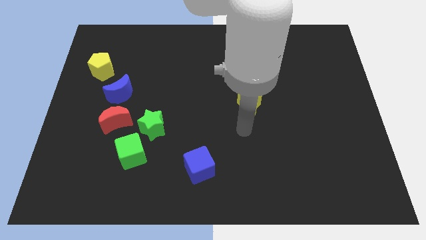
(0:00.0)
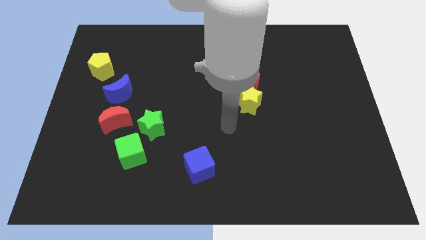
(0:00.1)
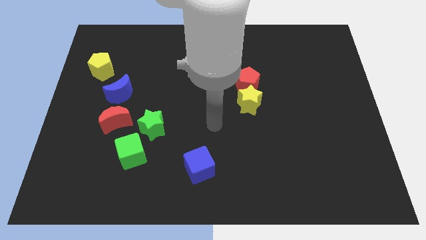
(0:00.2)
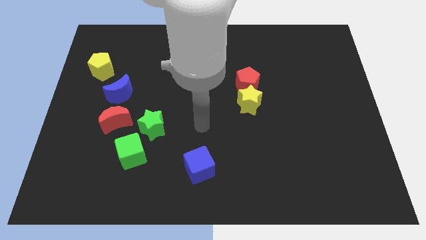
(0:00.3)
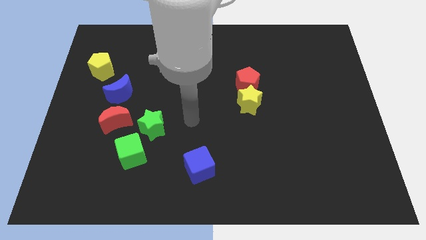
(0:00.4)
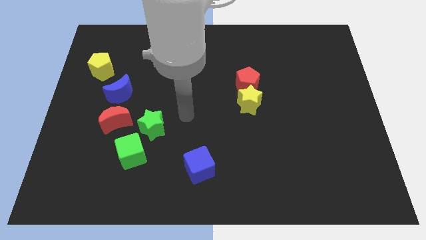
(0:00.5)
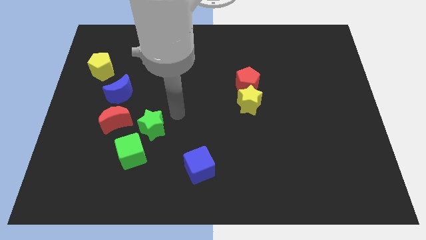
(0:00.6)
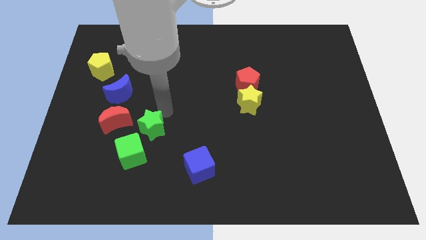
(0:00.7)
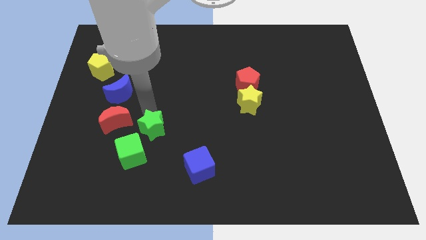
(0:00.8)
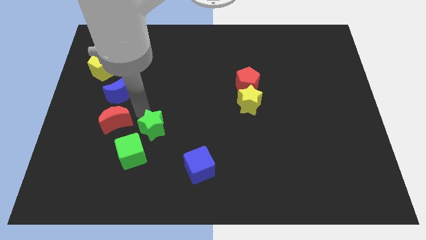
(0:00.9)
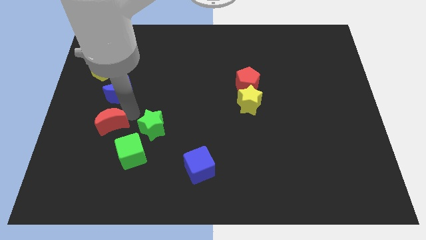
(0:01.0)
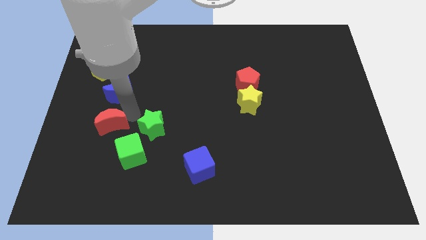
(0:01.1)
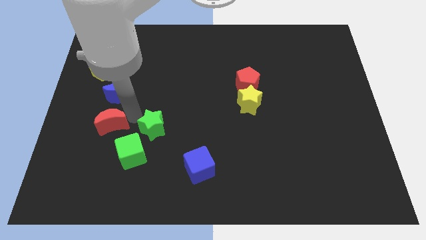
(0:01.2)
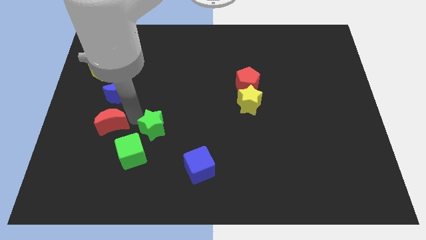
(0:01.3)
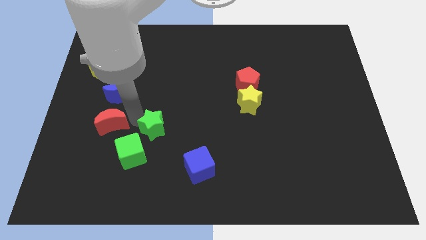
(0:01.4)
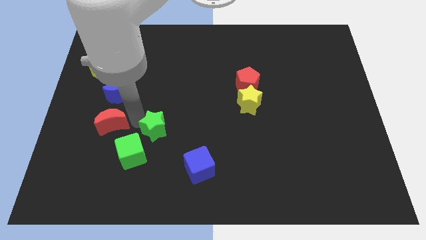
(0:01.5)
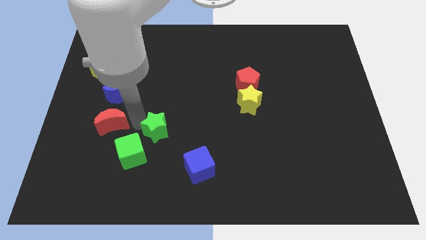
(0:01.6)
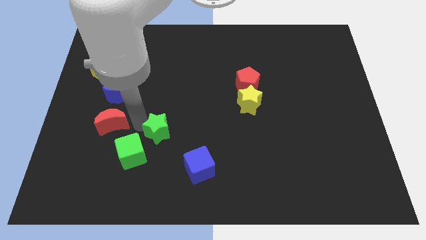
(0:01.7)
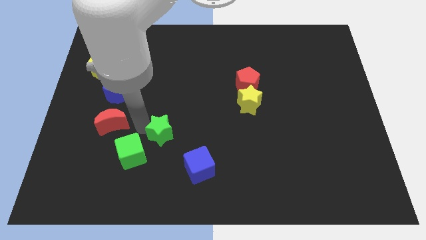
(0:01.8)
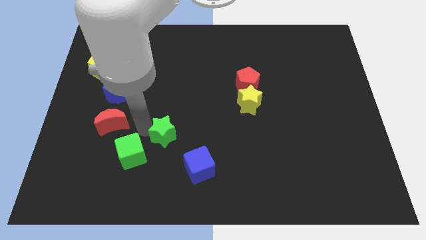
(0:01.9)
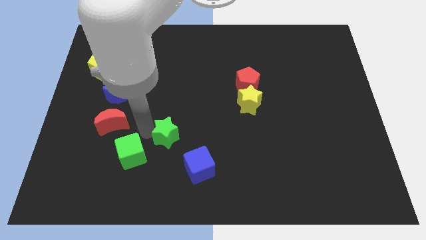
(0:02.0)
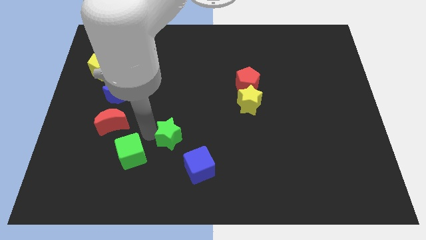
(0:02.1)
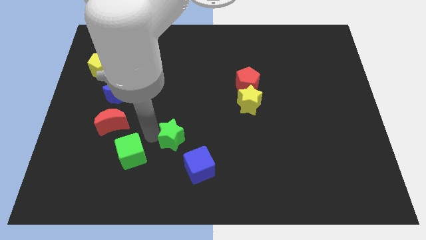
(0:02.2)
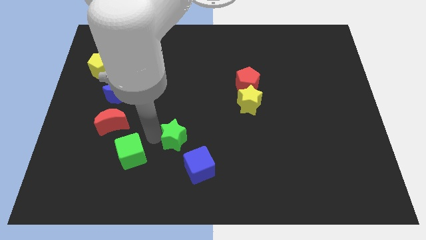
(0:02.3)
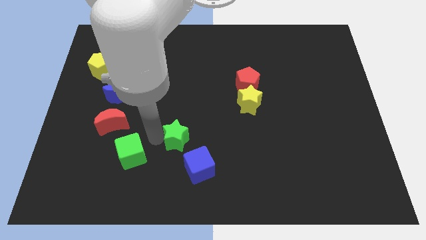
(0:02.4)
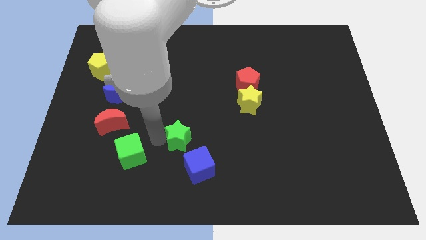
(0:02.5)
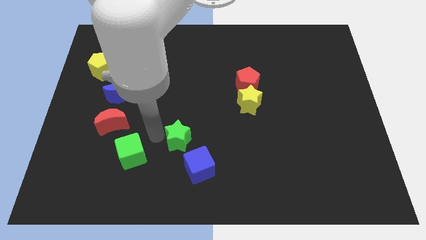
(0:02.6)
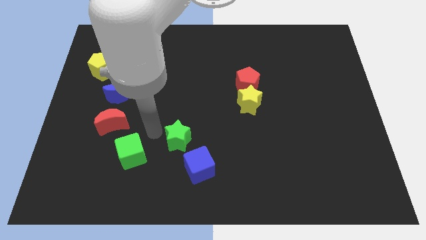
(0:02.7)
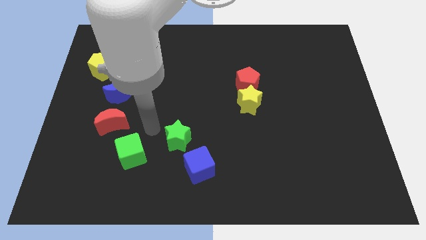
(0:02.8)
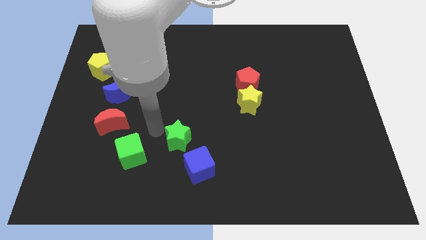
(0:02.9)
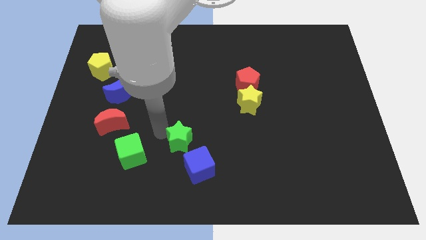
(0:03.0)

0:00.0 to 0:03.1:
push the green star a bit diagonally downwards and to the right

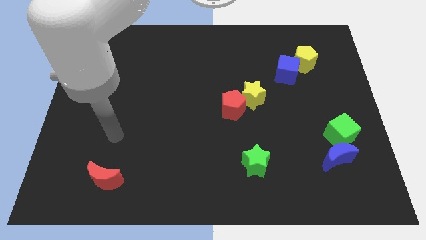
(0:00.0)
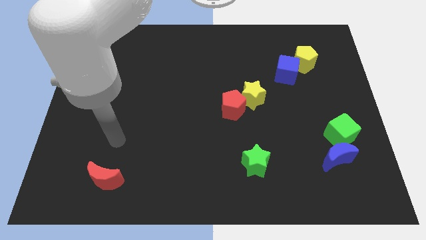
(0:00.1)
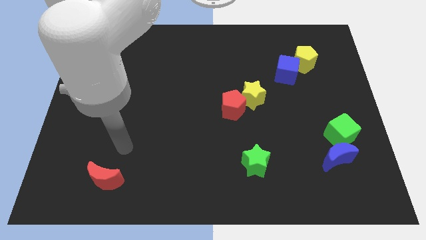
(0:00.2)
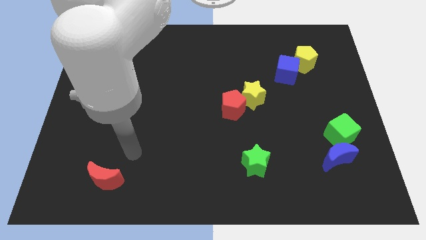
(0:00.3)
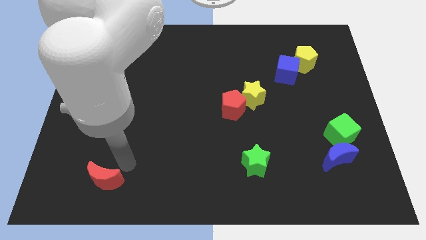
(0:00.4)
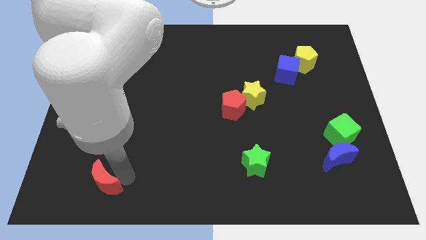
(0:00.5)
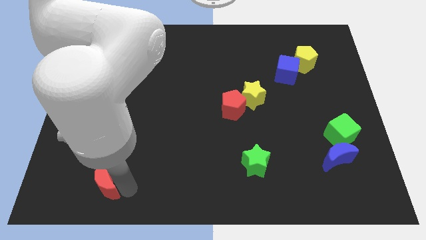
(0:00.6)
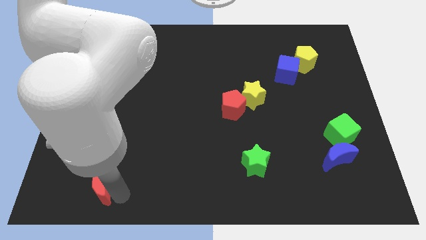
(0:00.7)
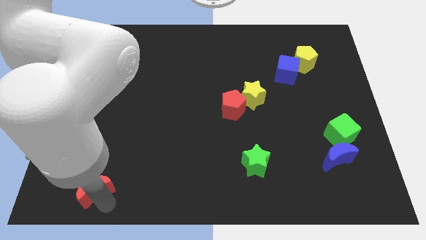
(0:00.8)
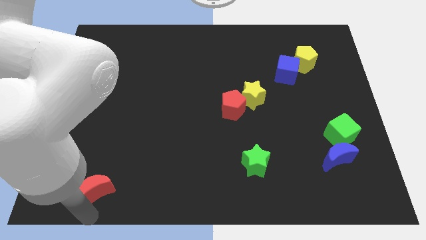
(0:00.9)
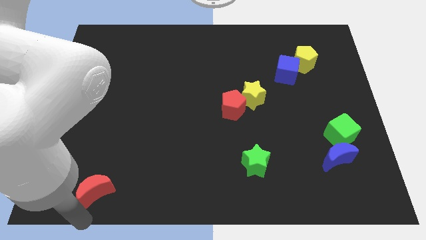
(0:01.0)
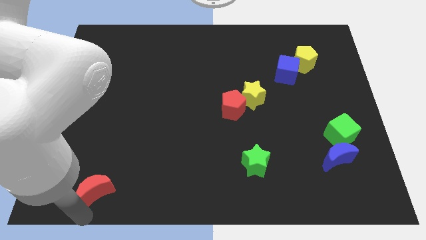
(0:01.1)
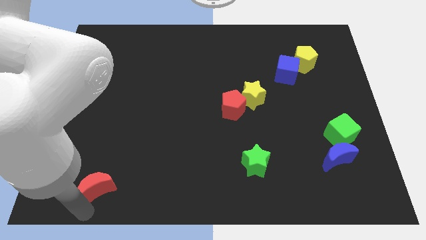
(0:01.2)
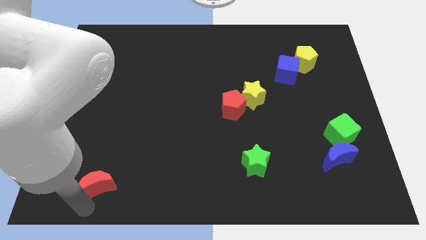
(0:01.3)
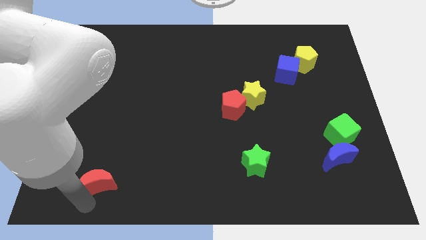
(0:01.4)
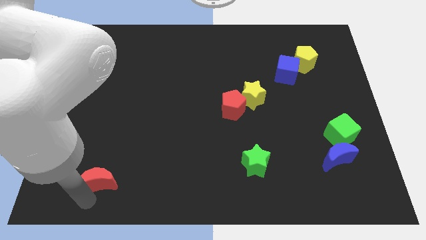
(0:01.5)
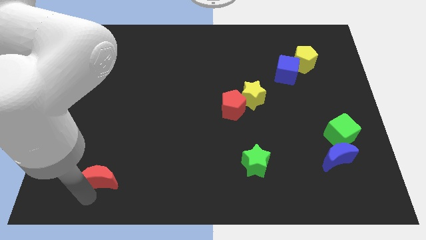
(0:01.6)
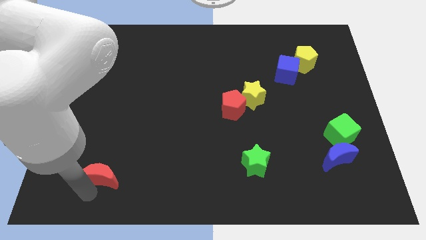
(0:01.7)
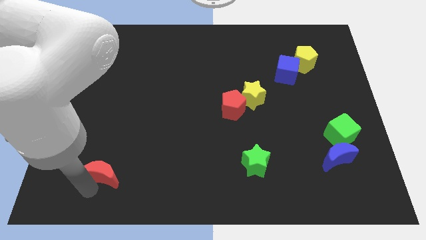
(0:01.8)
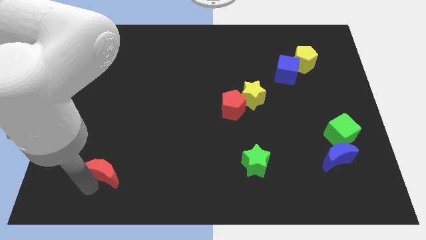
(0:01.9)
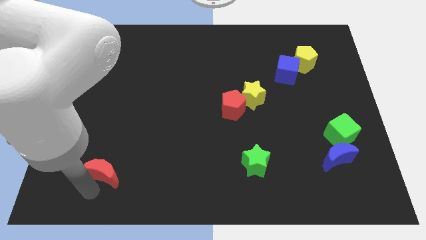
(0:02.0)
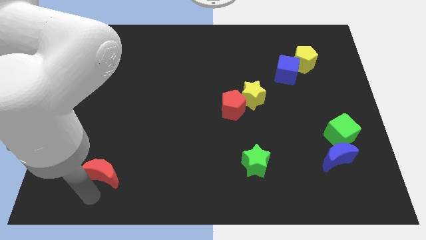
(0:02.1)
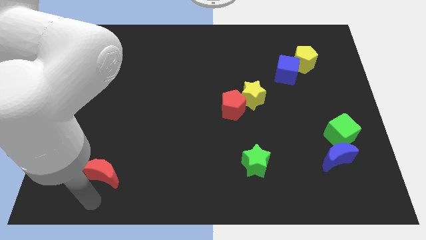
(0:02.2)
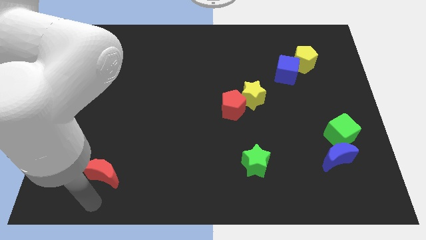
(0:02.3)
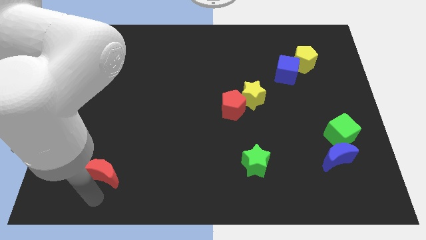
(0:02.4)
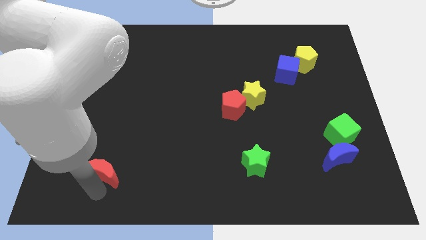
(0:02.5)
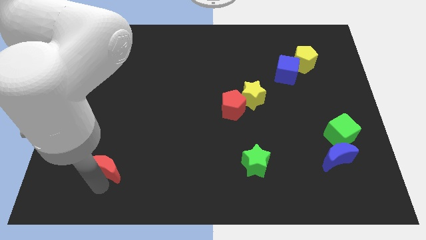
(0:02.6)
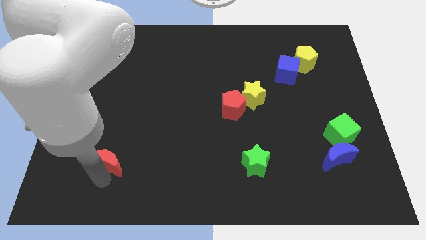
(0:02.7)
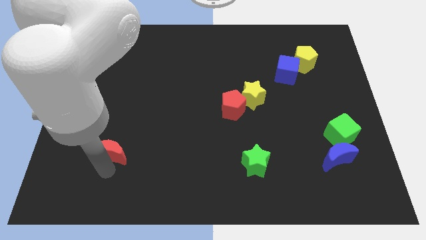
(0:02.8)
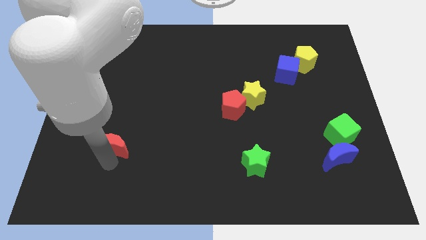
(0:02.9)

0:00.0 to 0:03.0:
slide the red moon somewhat upwards

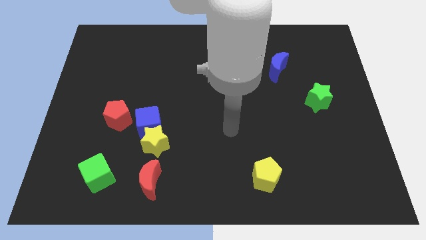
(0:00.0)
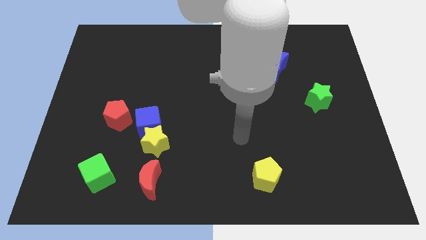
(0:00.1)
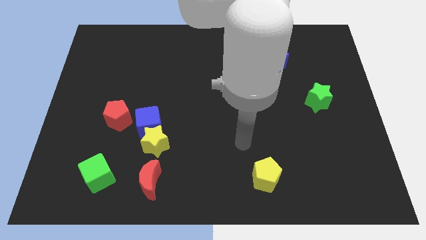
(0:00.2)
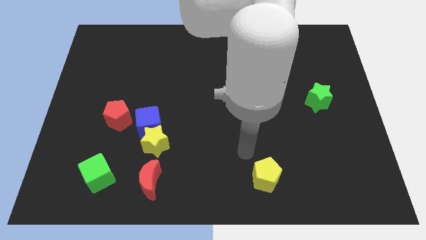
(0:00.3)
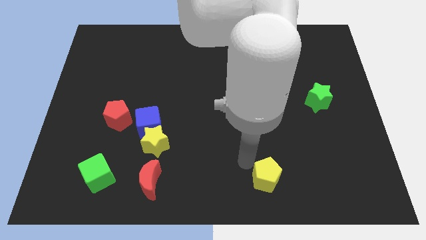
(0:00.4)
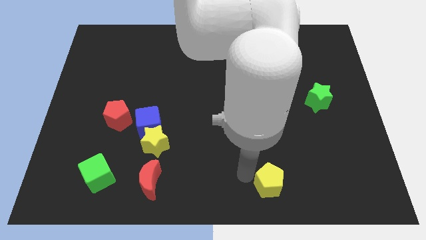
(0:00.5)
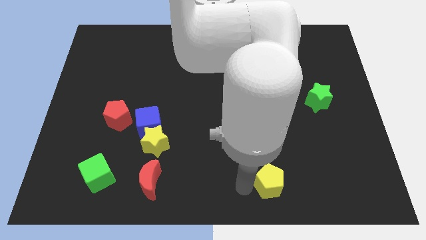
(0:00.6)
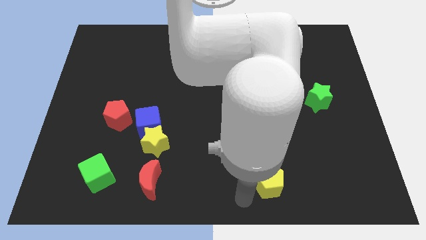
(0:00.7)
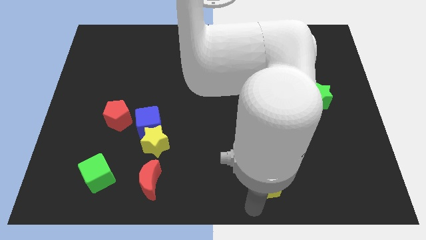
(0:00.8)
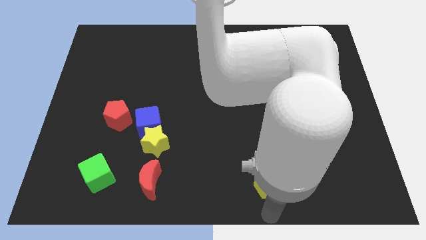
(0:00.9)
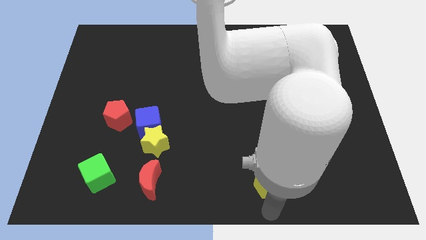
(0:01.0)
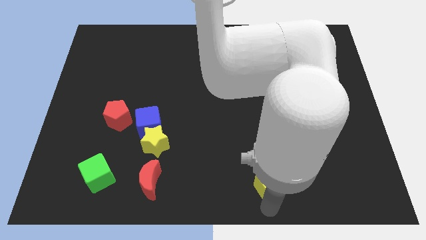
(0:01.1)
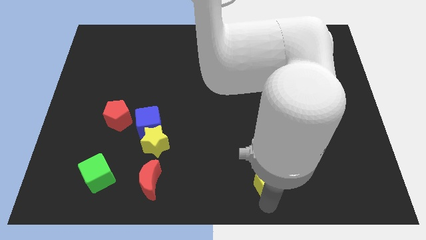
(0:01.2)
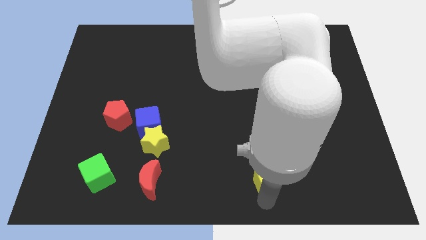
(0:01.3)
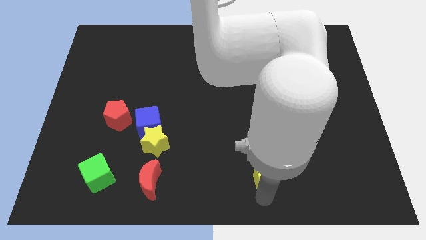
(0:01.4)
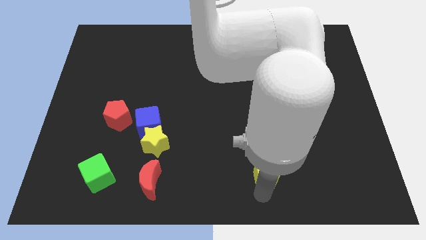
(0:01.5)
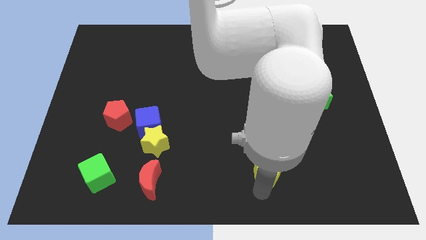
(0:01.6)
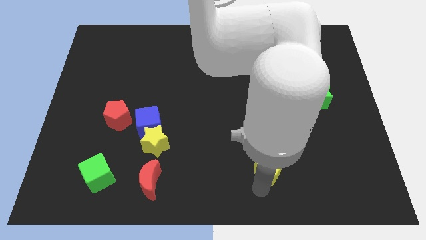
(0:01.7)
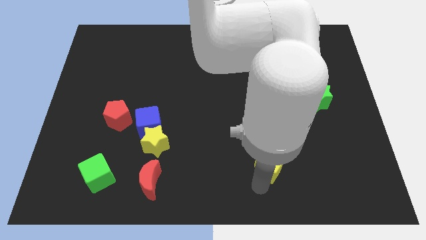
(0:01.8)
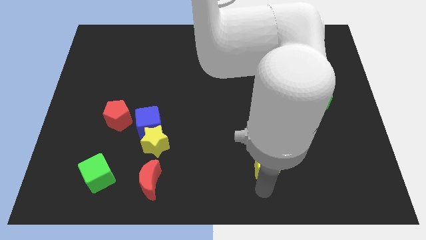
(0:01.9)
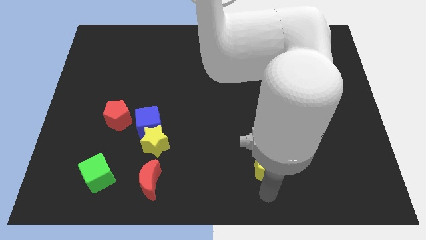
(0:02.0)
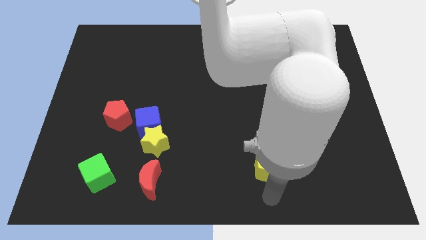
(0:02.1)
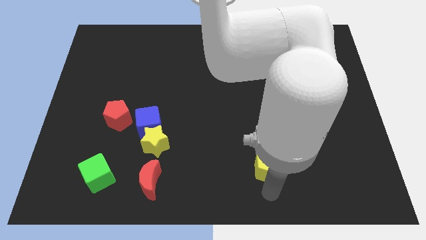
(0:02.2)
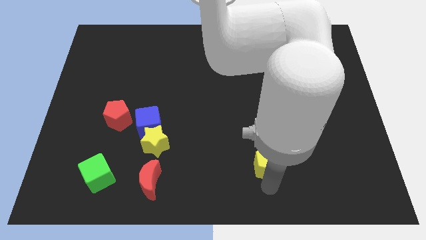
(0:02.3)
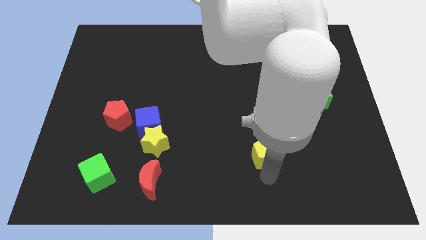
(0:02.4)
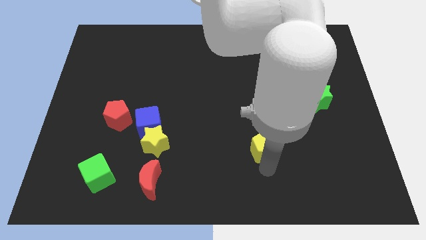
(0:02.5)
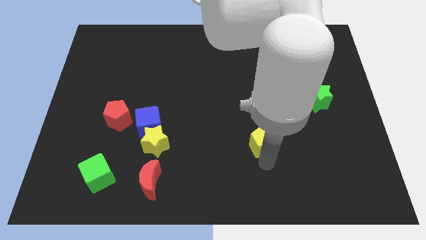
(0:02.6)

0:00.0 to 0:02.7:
slightly slide the yellow pentagon up
